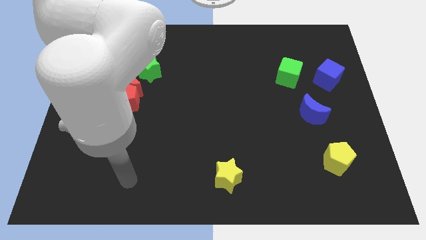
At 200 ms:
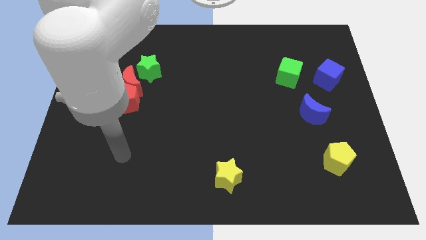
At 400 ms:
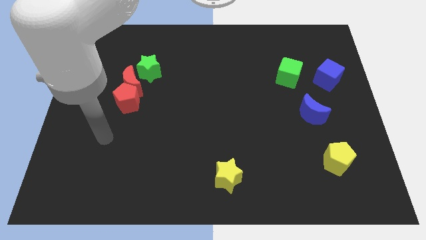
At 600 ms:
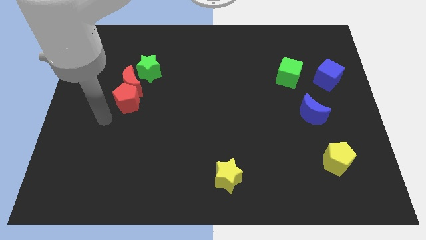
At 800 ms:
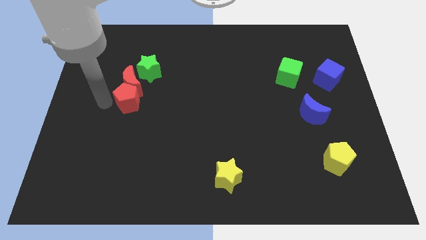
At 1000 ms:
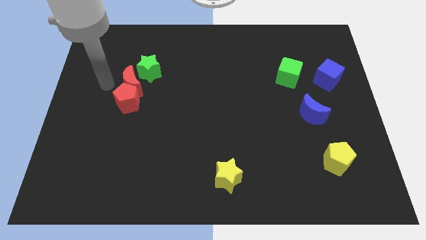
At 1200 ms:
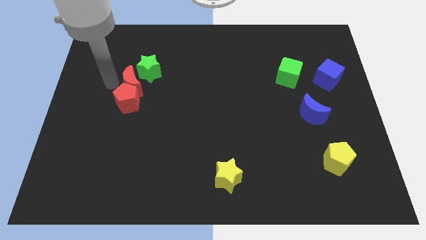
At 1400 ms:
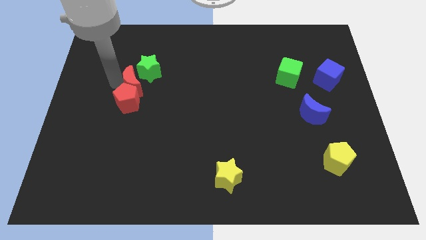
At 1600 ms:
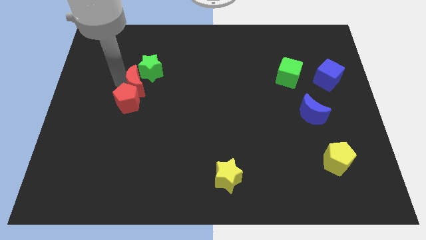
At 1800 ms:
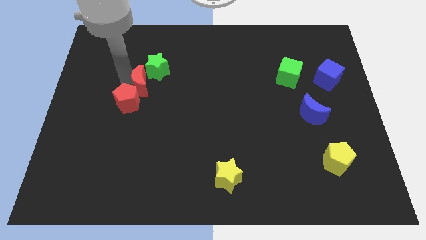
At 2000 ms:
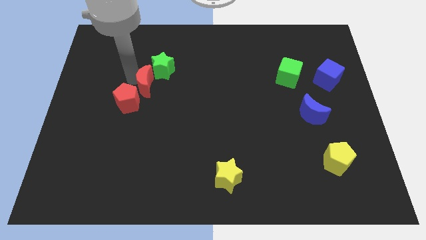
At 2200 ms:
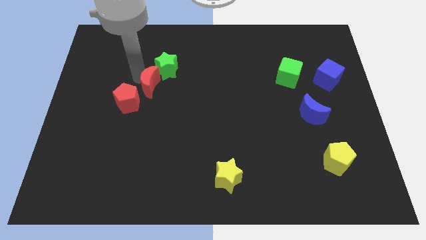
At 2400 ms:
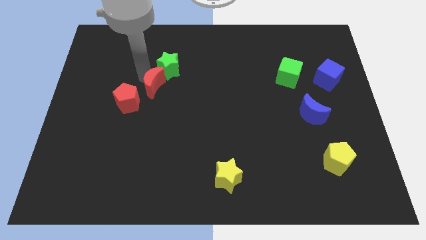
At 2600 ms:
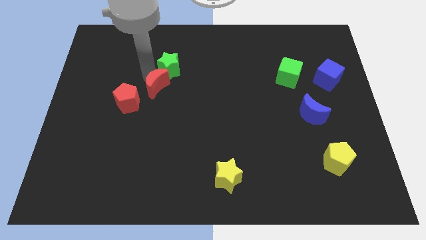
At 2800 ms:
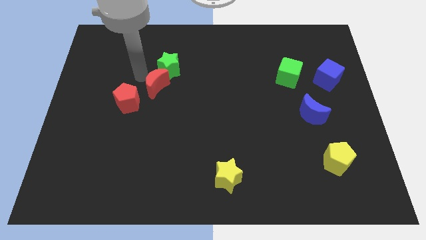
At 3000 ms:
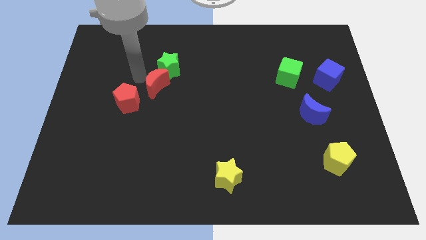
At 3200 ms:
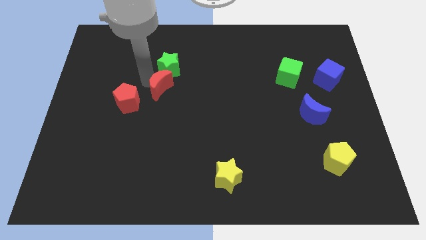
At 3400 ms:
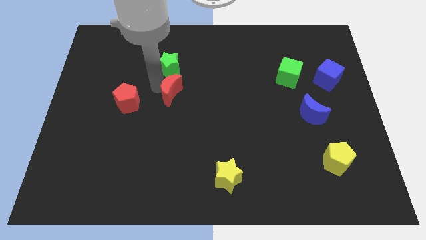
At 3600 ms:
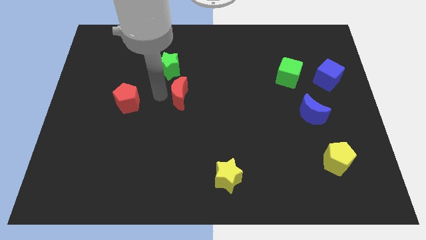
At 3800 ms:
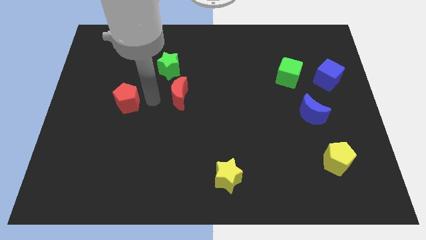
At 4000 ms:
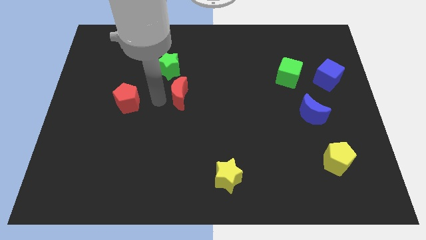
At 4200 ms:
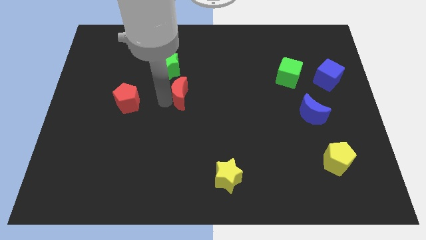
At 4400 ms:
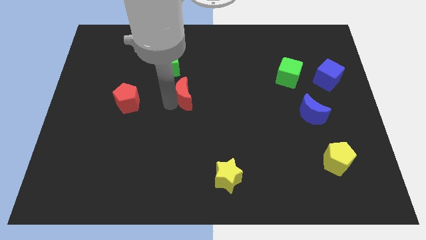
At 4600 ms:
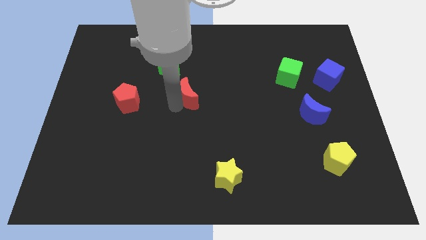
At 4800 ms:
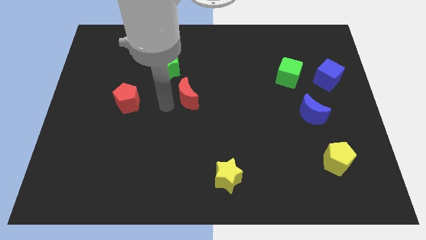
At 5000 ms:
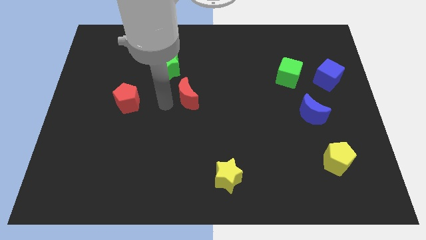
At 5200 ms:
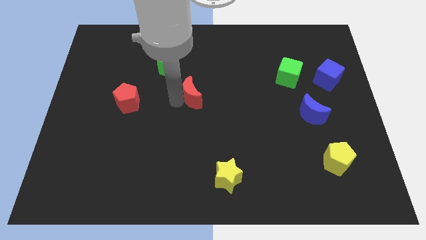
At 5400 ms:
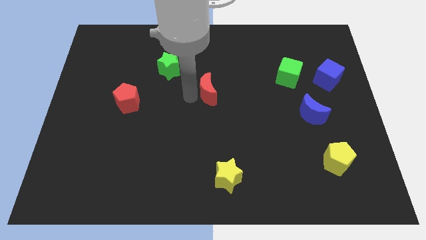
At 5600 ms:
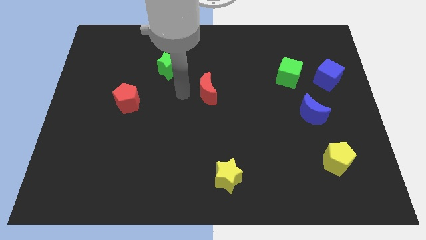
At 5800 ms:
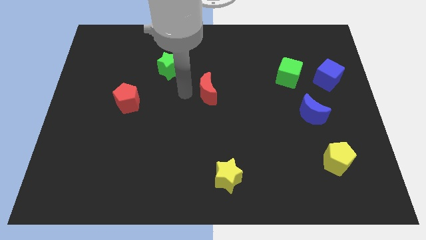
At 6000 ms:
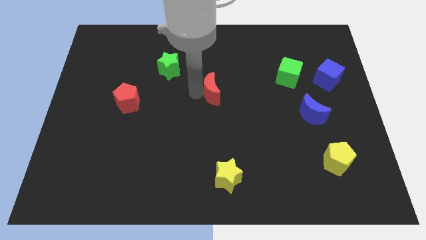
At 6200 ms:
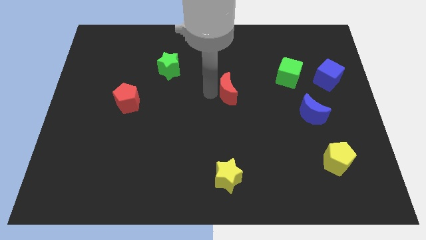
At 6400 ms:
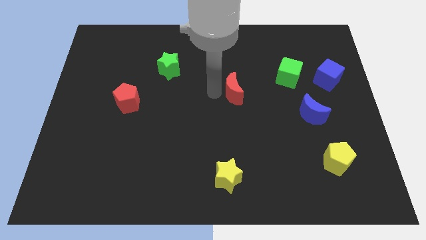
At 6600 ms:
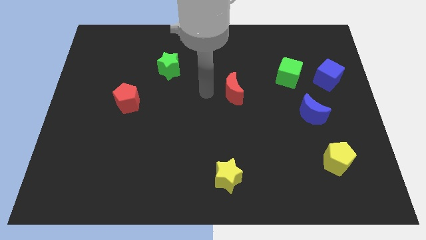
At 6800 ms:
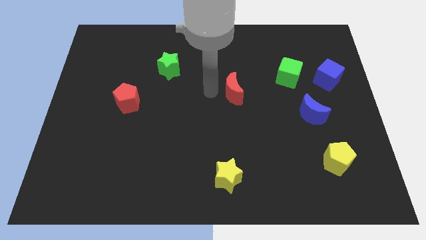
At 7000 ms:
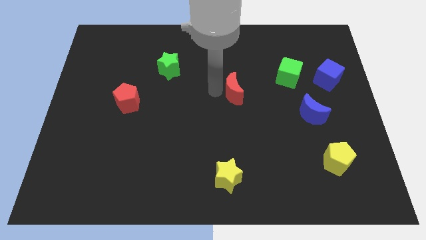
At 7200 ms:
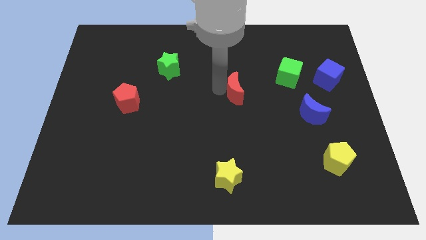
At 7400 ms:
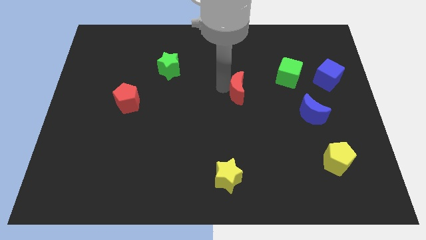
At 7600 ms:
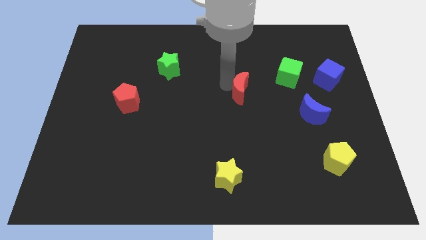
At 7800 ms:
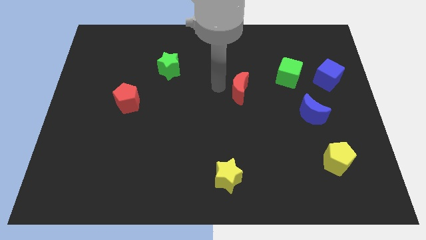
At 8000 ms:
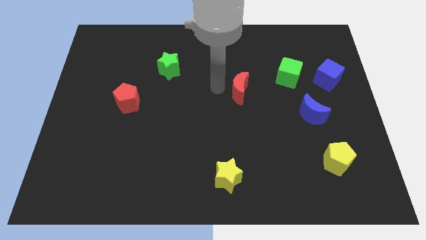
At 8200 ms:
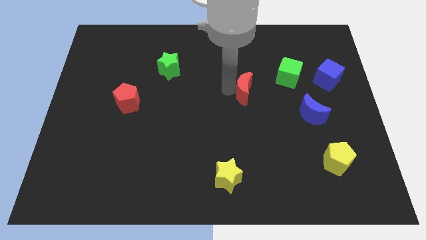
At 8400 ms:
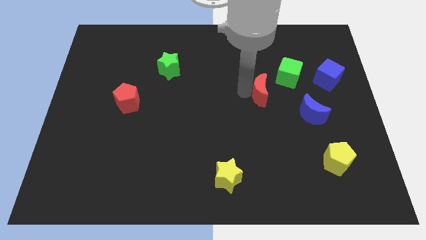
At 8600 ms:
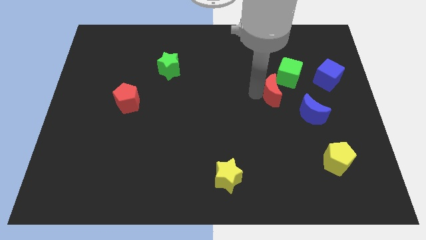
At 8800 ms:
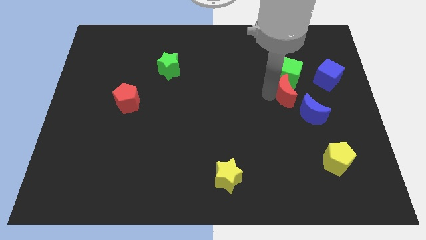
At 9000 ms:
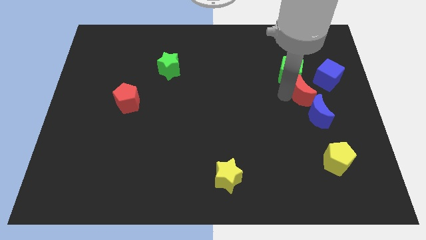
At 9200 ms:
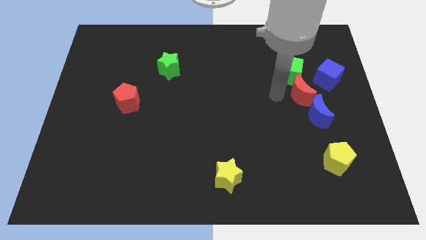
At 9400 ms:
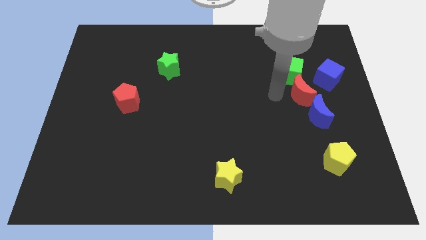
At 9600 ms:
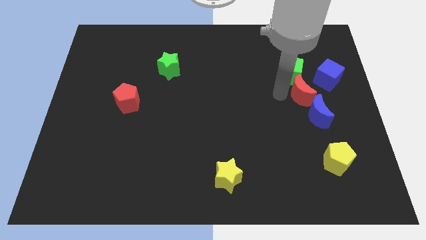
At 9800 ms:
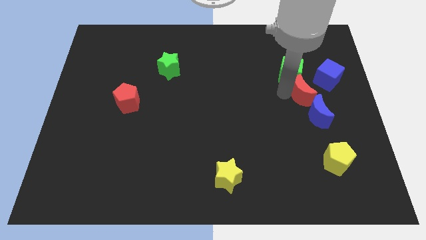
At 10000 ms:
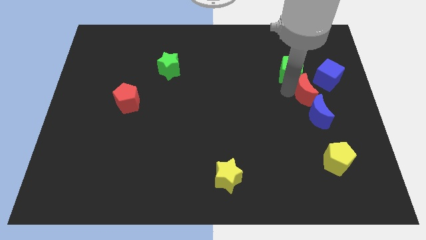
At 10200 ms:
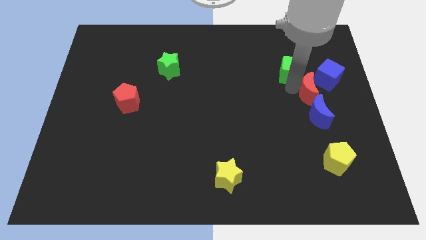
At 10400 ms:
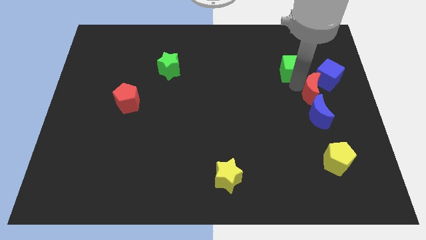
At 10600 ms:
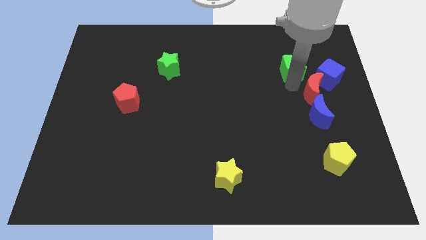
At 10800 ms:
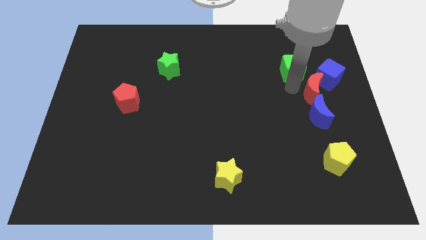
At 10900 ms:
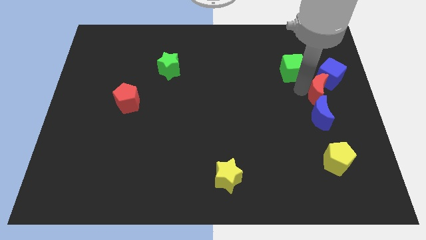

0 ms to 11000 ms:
move the red moon to the right side

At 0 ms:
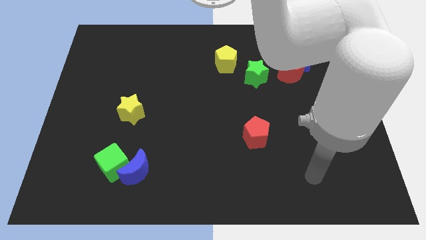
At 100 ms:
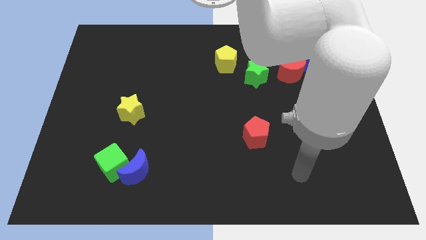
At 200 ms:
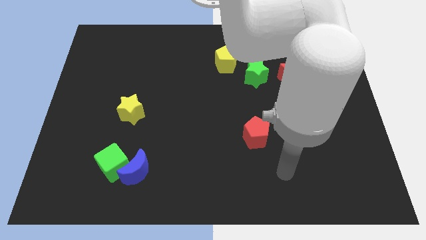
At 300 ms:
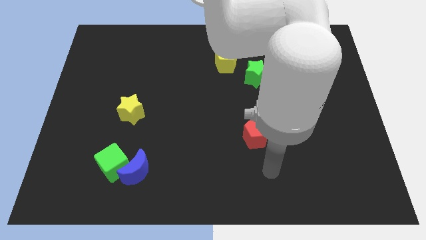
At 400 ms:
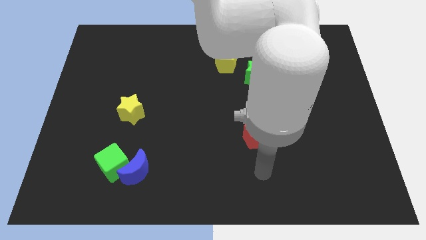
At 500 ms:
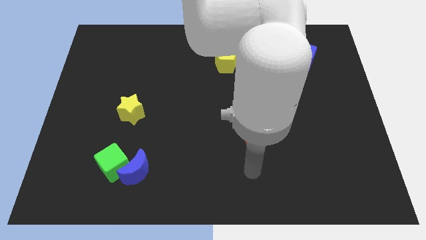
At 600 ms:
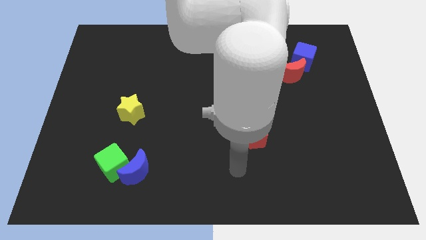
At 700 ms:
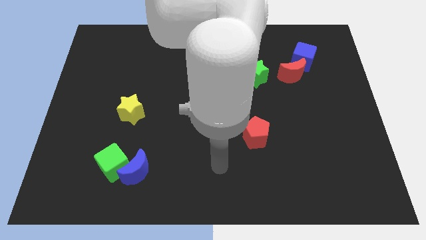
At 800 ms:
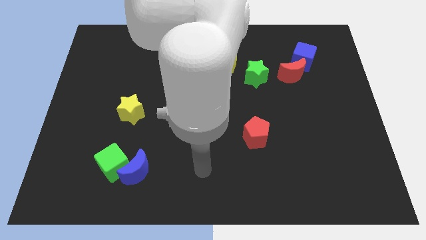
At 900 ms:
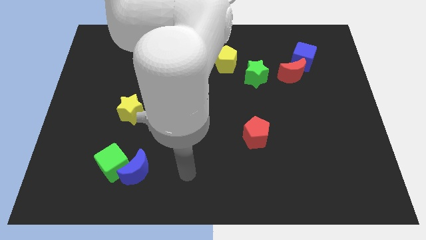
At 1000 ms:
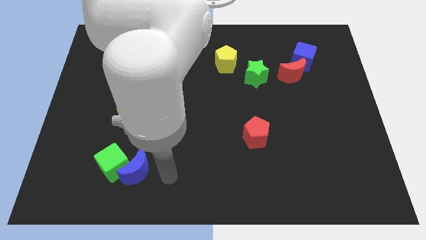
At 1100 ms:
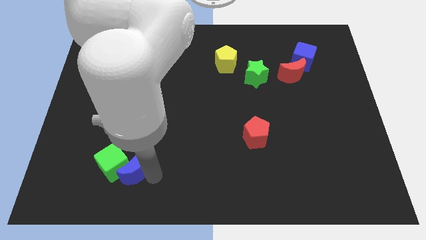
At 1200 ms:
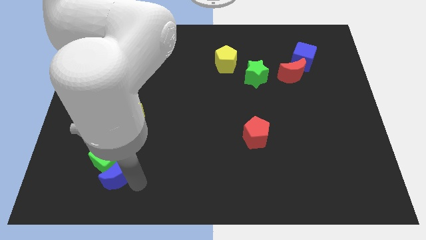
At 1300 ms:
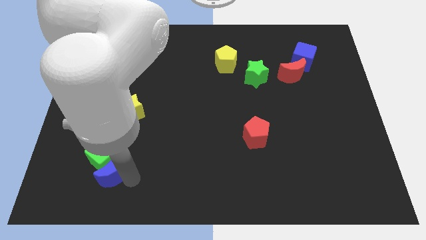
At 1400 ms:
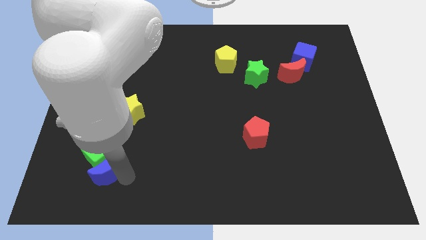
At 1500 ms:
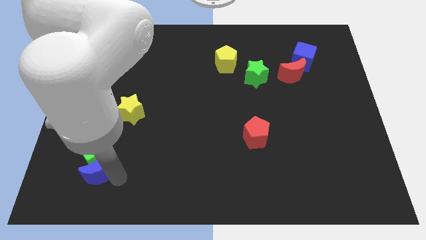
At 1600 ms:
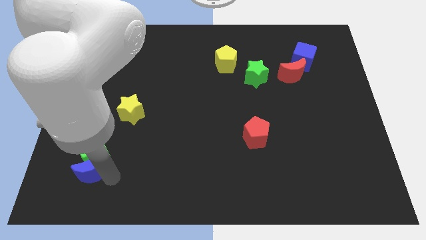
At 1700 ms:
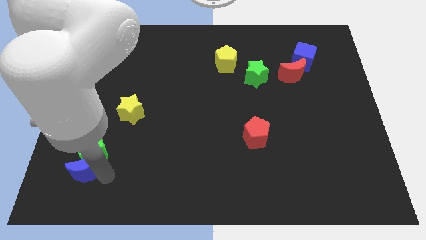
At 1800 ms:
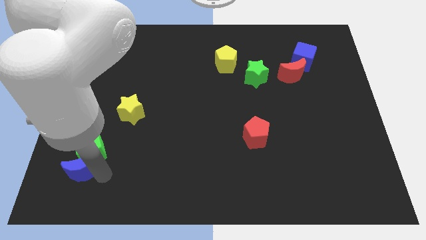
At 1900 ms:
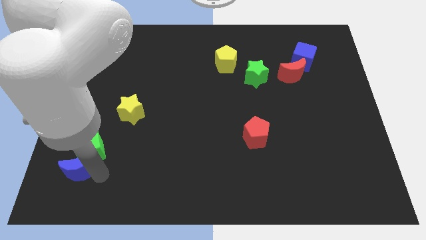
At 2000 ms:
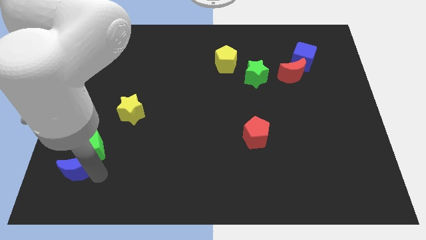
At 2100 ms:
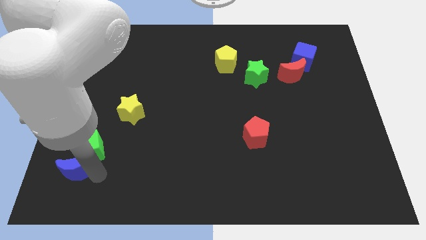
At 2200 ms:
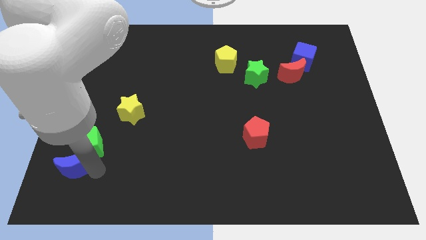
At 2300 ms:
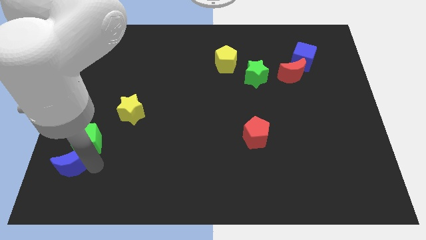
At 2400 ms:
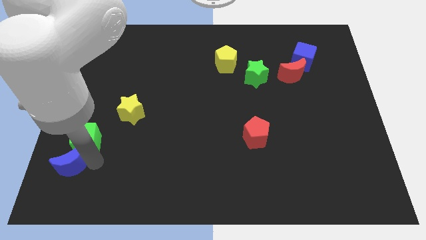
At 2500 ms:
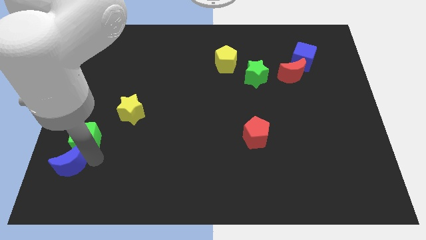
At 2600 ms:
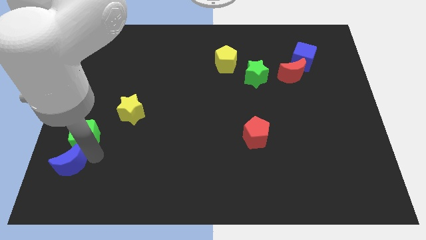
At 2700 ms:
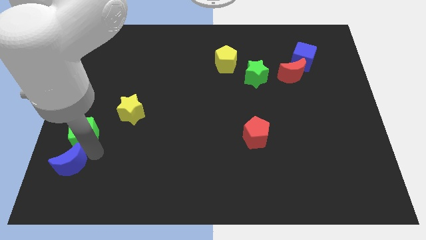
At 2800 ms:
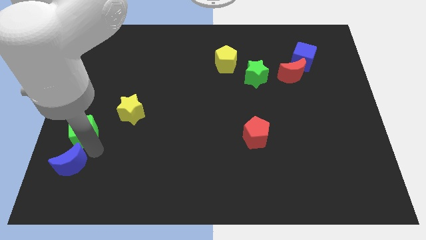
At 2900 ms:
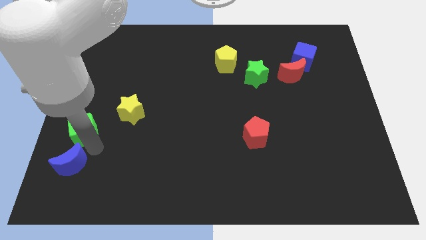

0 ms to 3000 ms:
push the green cube to the center left
